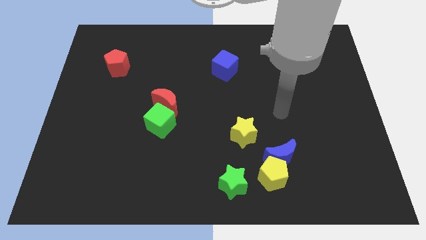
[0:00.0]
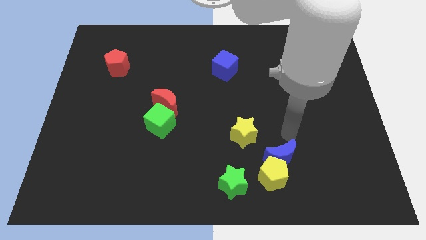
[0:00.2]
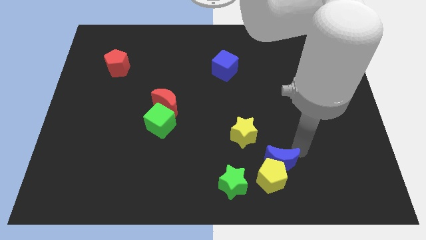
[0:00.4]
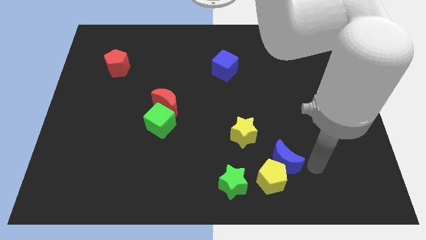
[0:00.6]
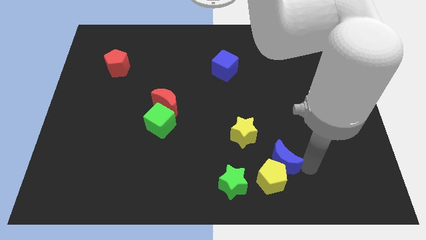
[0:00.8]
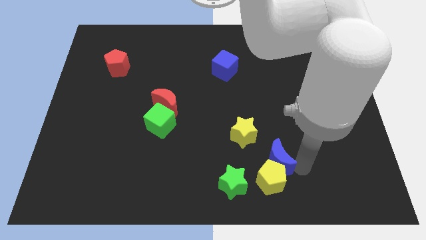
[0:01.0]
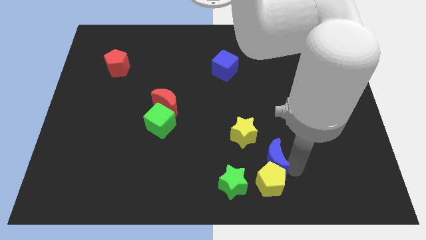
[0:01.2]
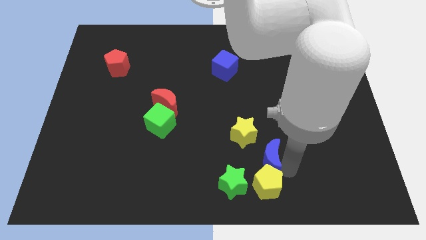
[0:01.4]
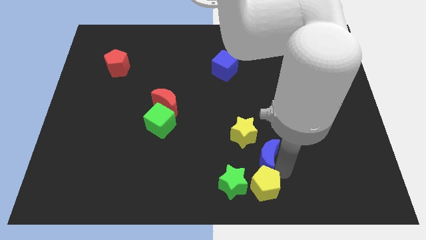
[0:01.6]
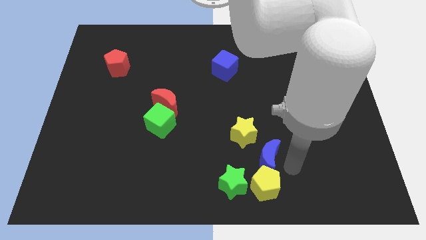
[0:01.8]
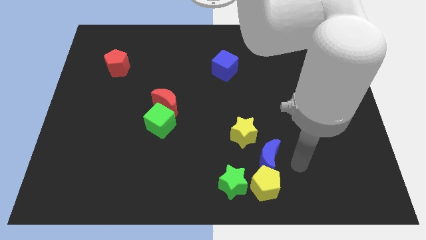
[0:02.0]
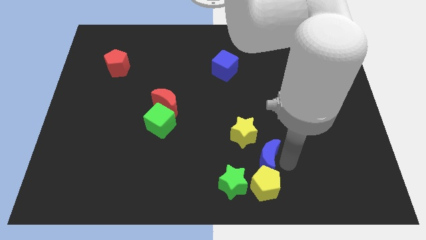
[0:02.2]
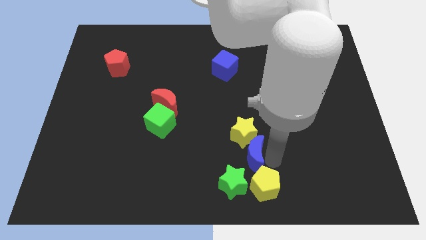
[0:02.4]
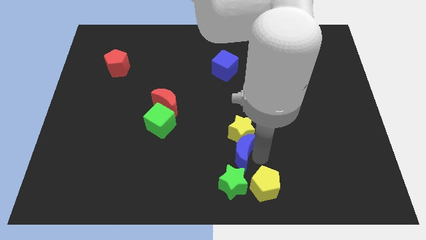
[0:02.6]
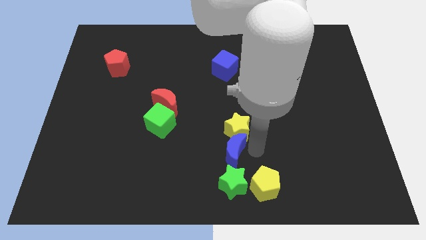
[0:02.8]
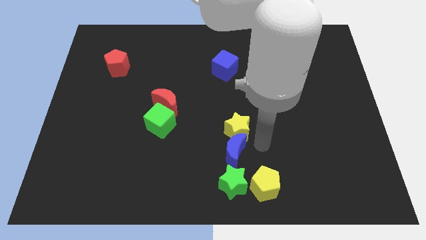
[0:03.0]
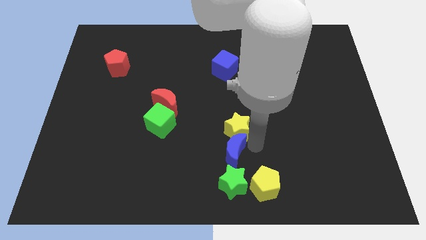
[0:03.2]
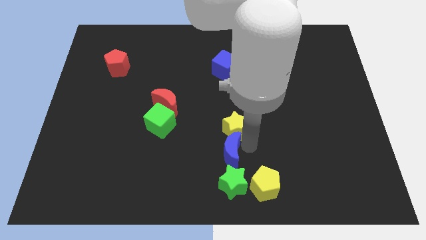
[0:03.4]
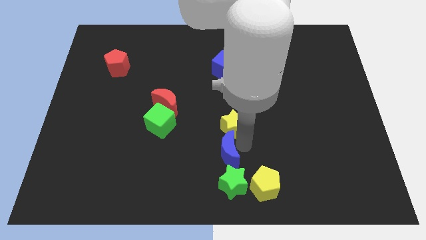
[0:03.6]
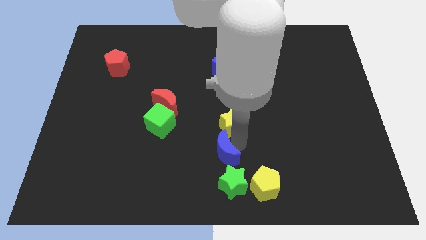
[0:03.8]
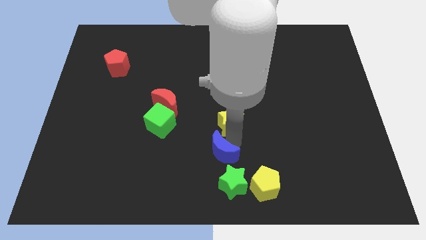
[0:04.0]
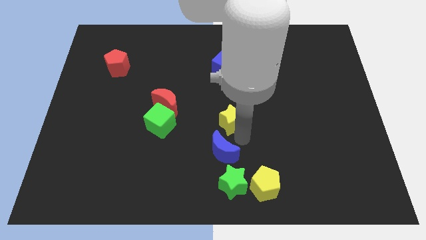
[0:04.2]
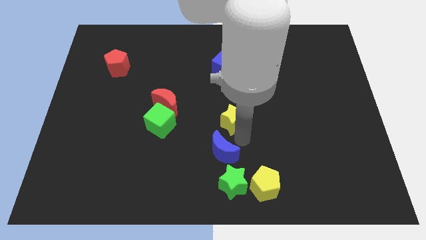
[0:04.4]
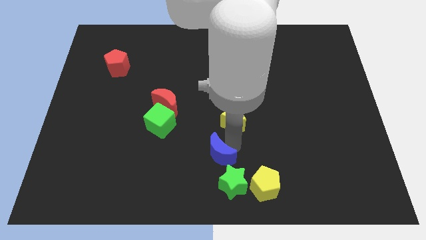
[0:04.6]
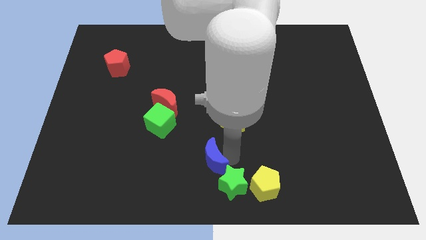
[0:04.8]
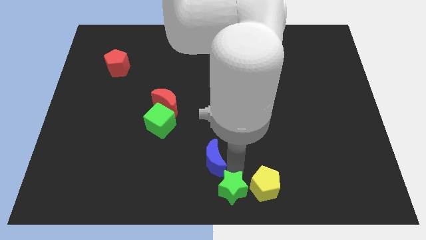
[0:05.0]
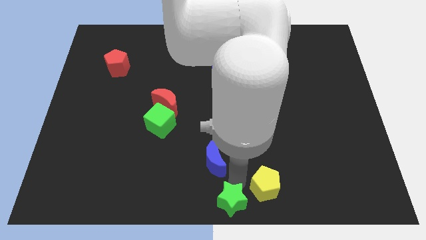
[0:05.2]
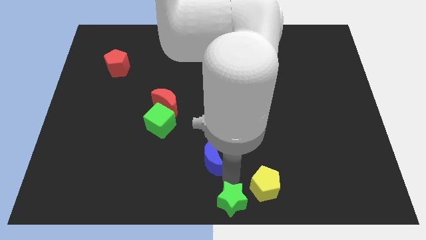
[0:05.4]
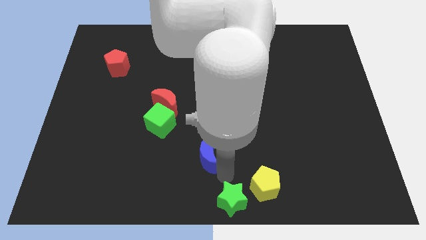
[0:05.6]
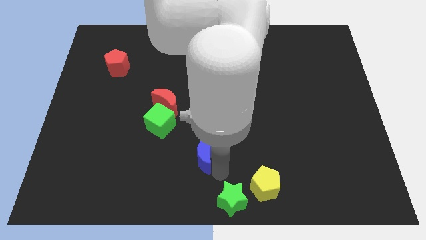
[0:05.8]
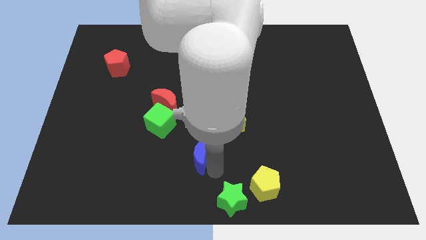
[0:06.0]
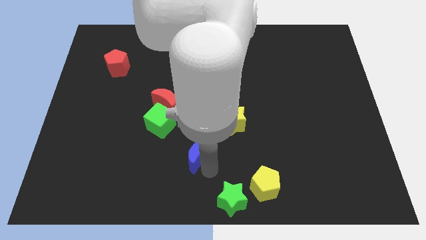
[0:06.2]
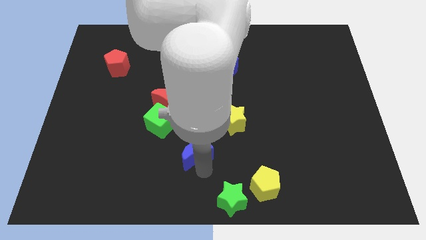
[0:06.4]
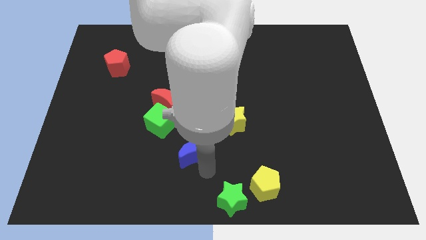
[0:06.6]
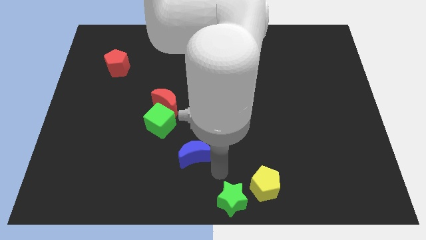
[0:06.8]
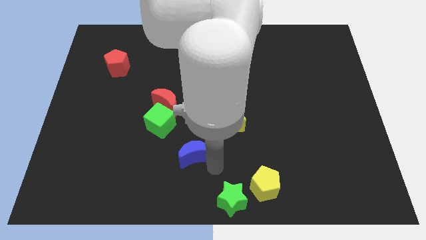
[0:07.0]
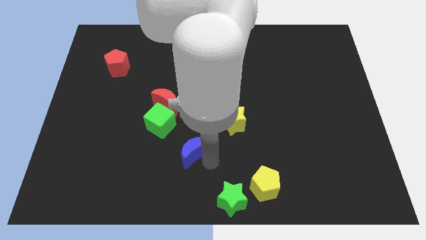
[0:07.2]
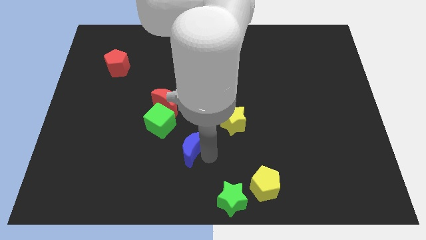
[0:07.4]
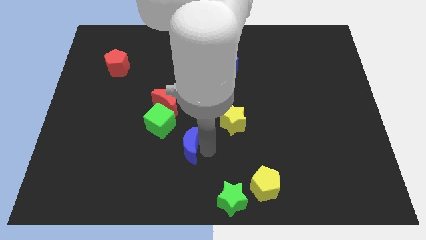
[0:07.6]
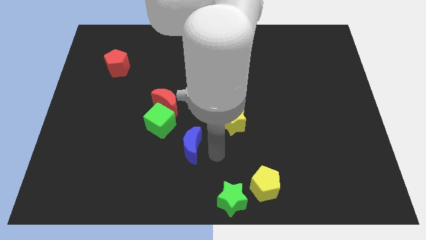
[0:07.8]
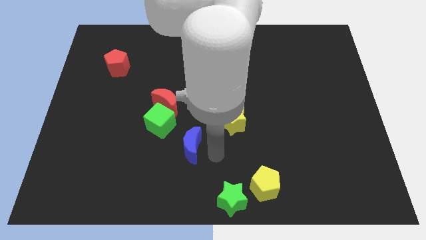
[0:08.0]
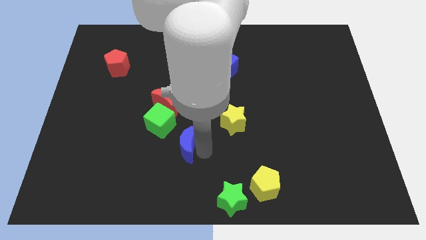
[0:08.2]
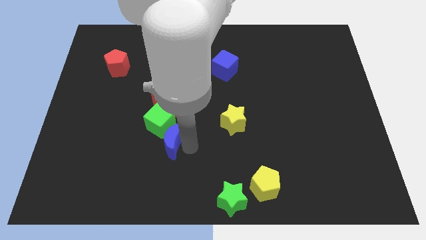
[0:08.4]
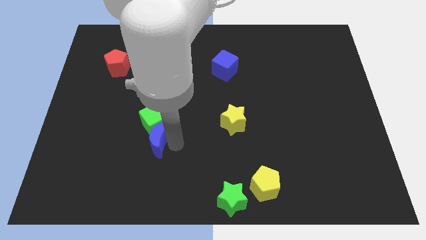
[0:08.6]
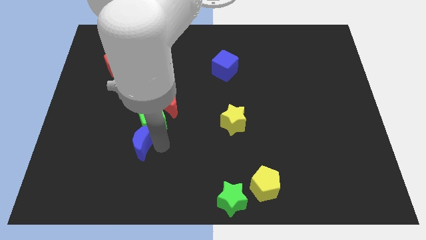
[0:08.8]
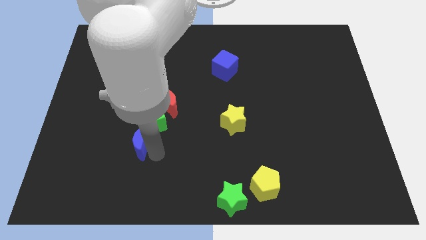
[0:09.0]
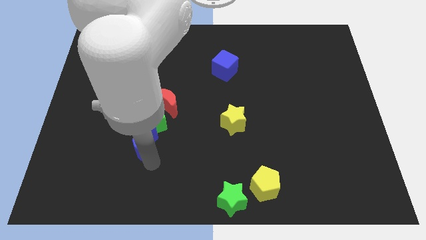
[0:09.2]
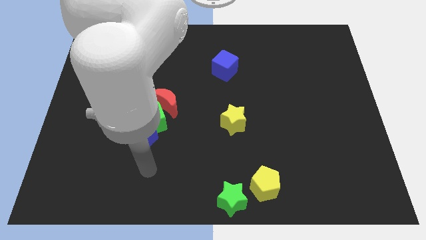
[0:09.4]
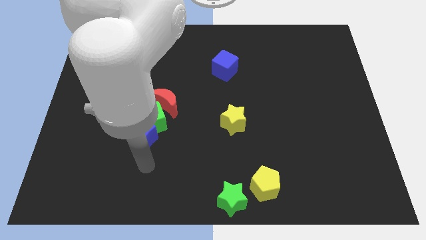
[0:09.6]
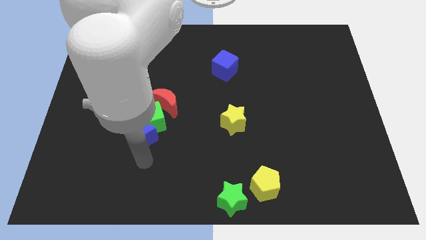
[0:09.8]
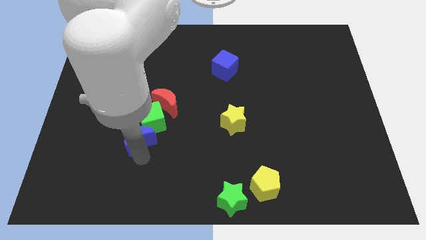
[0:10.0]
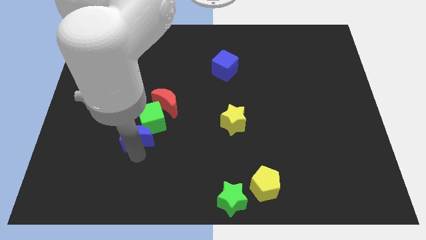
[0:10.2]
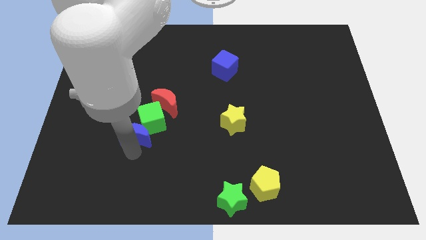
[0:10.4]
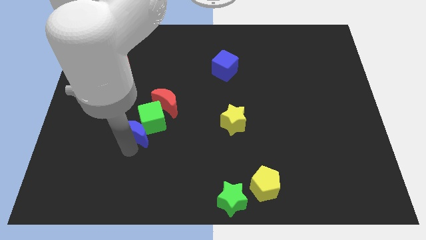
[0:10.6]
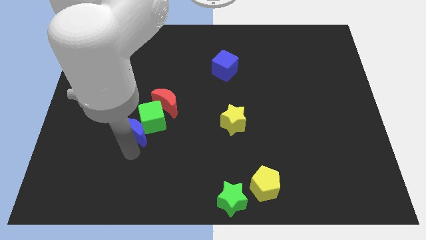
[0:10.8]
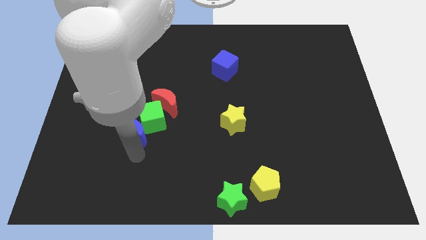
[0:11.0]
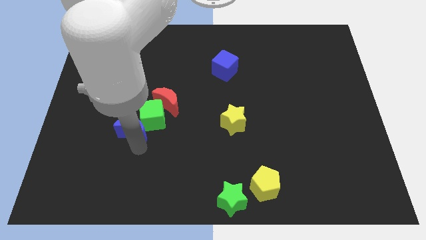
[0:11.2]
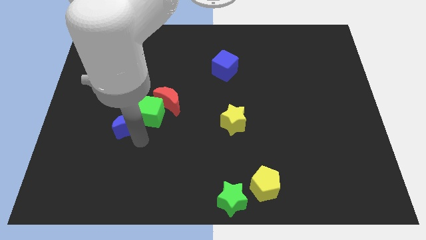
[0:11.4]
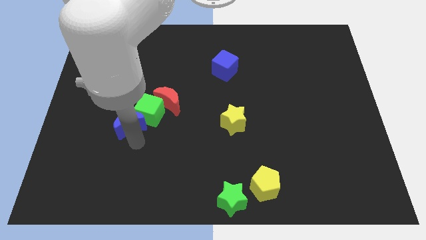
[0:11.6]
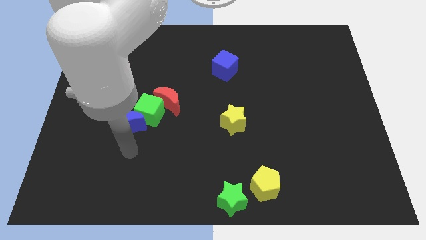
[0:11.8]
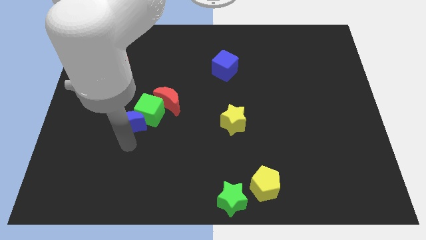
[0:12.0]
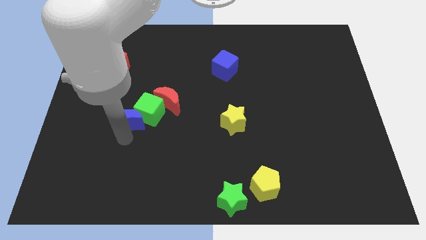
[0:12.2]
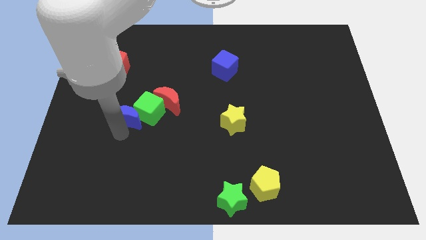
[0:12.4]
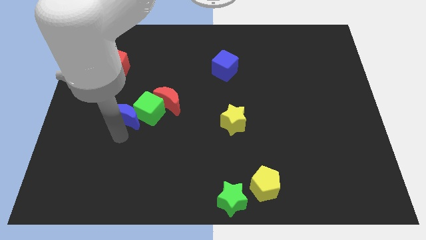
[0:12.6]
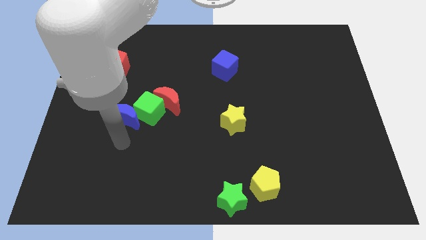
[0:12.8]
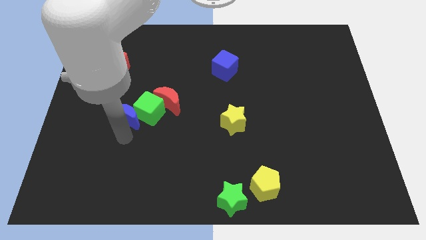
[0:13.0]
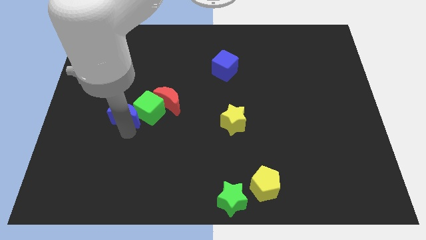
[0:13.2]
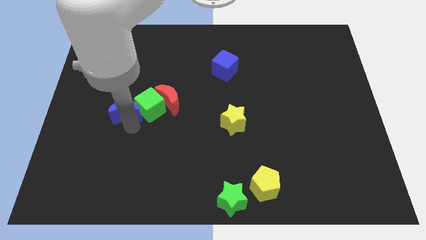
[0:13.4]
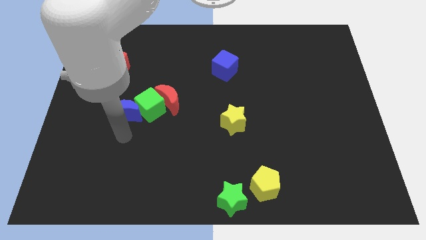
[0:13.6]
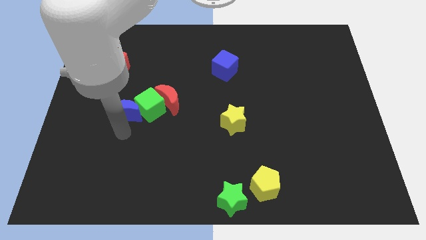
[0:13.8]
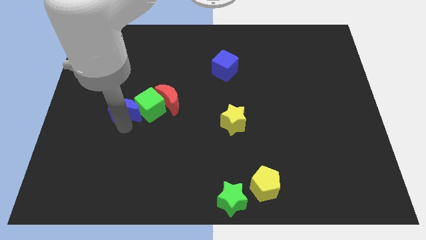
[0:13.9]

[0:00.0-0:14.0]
slide the blue moon to the top left of the green cube
